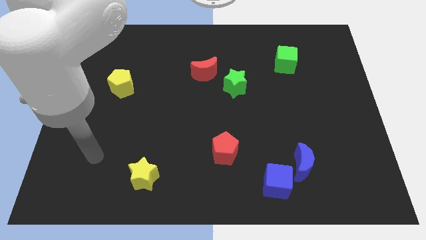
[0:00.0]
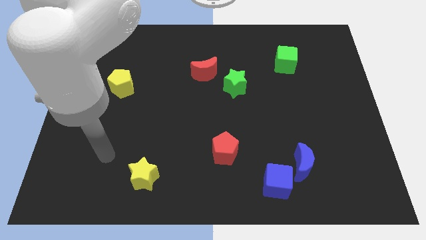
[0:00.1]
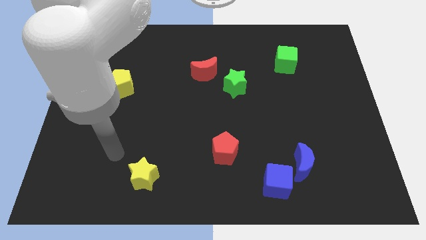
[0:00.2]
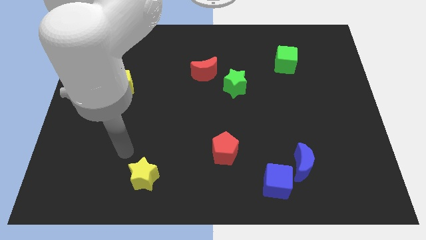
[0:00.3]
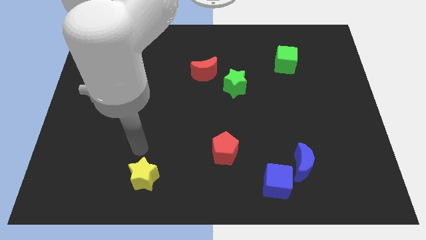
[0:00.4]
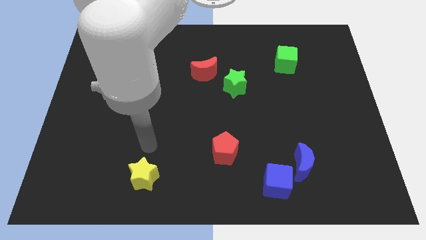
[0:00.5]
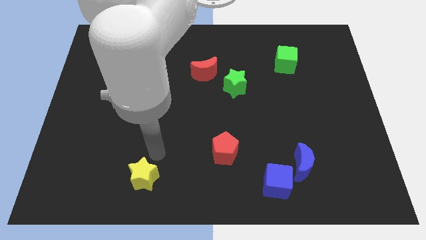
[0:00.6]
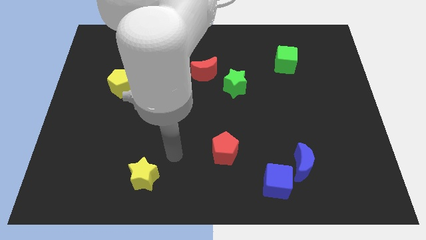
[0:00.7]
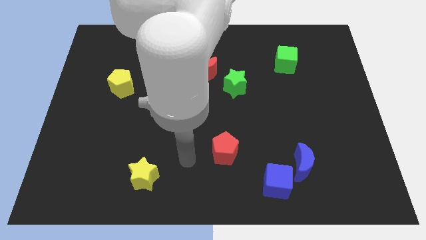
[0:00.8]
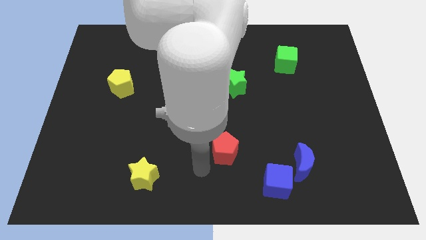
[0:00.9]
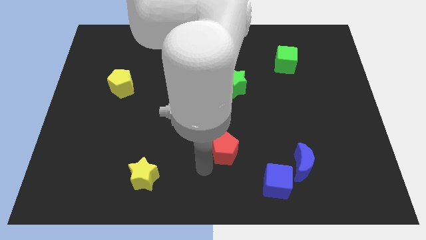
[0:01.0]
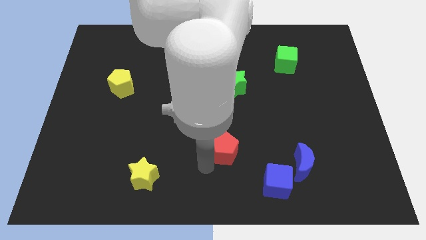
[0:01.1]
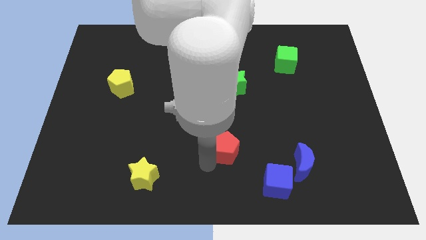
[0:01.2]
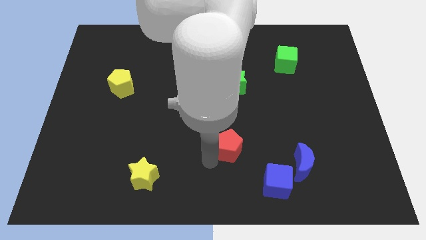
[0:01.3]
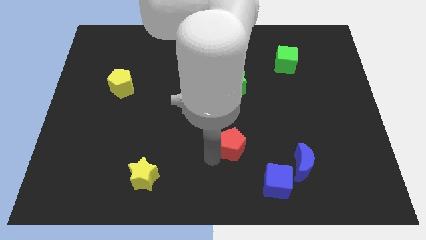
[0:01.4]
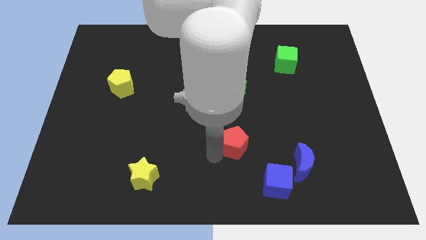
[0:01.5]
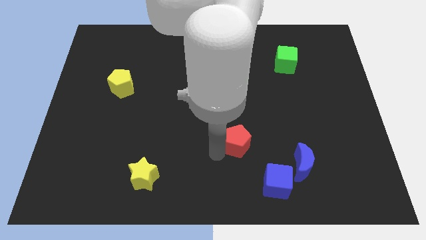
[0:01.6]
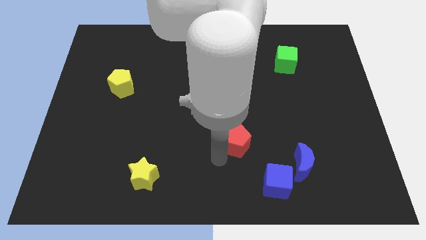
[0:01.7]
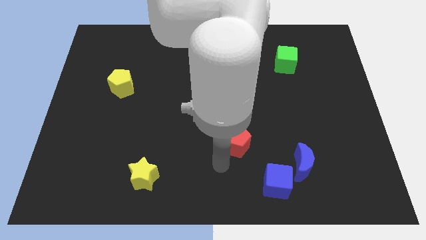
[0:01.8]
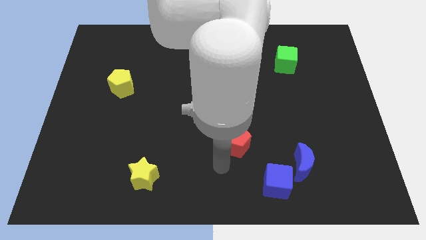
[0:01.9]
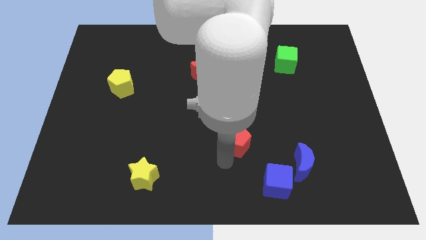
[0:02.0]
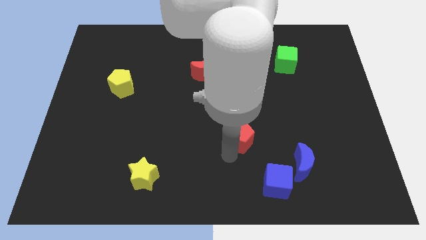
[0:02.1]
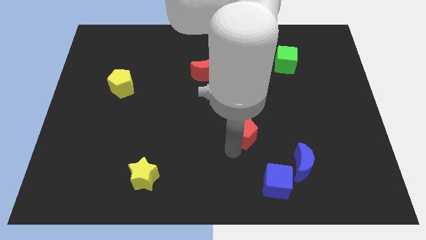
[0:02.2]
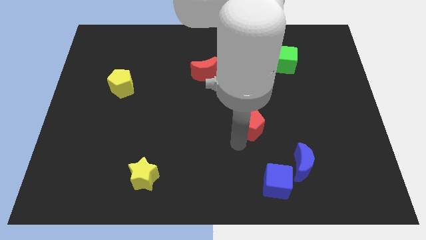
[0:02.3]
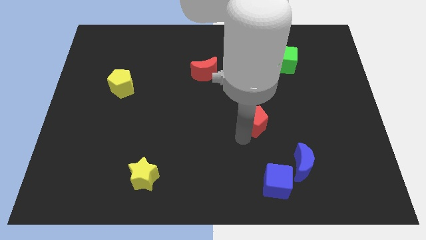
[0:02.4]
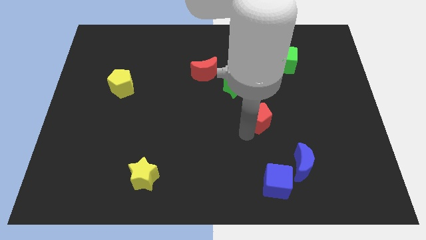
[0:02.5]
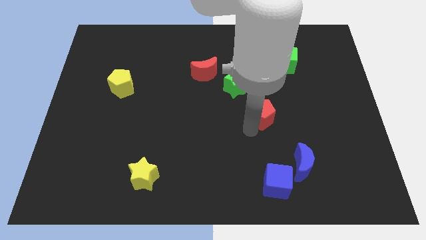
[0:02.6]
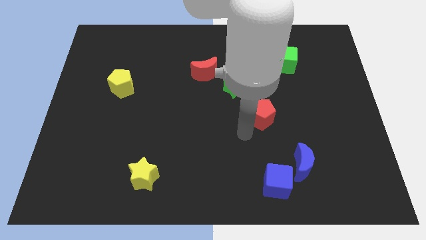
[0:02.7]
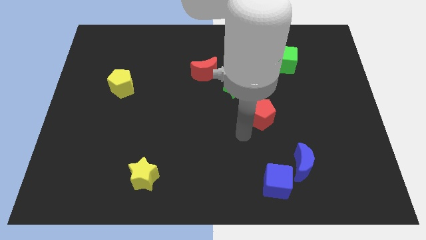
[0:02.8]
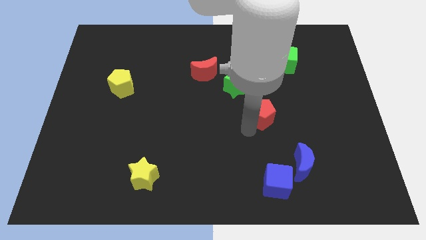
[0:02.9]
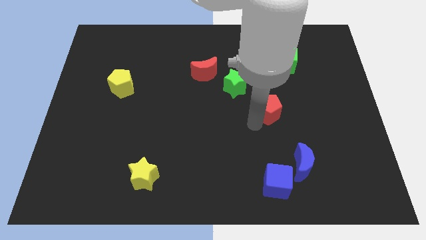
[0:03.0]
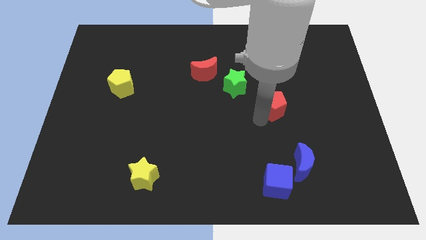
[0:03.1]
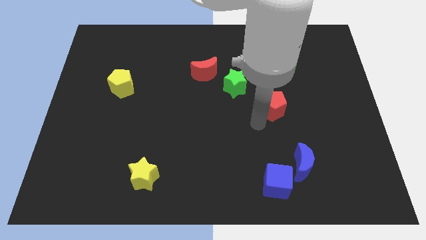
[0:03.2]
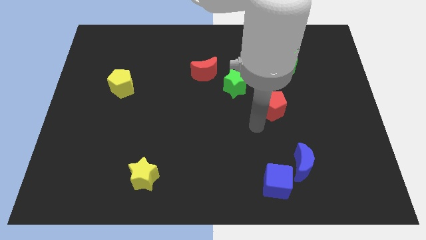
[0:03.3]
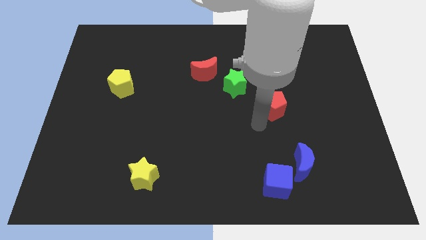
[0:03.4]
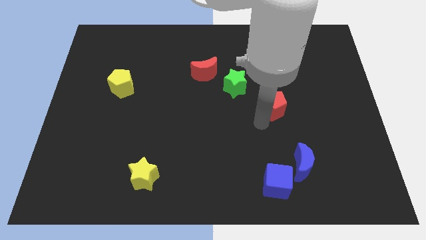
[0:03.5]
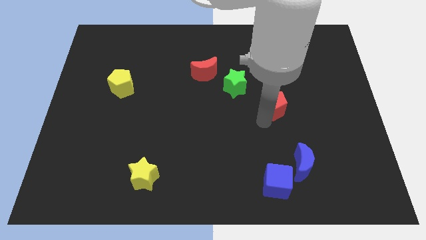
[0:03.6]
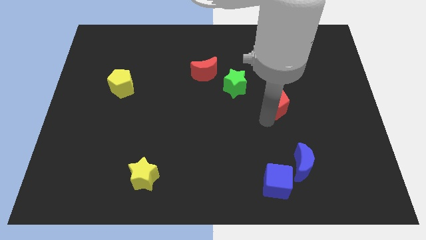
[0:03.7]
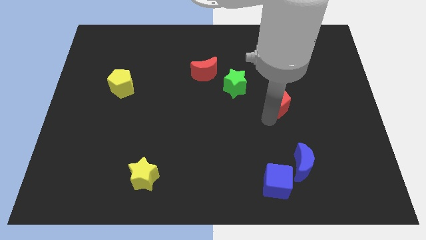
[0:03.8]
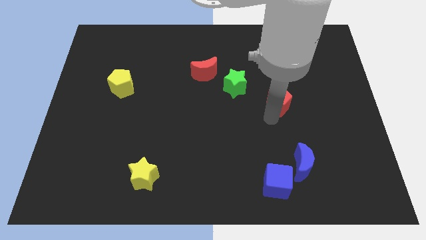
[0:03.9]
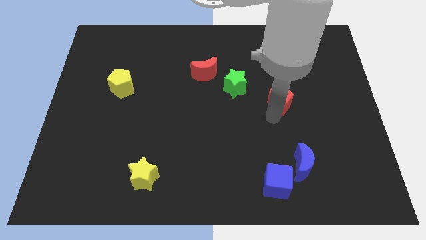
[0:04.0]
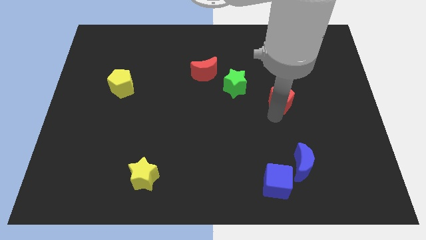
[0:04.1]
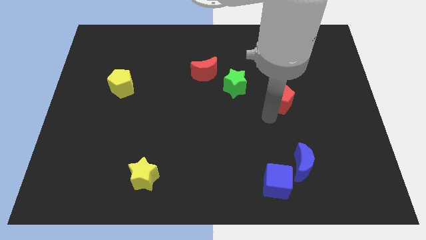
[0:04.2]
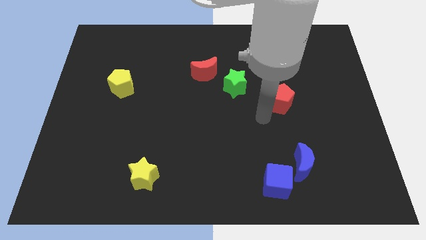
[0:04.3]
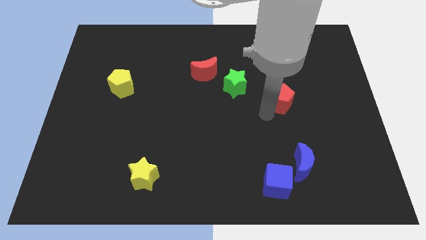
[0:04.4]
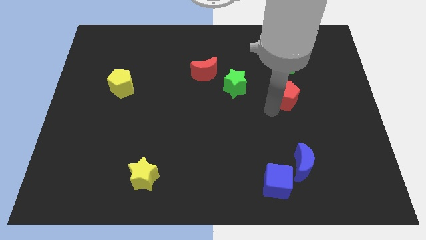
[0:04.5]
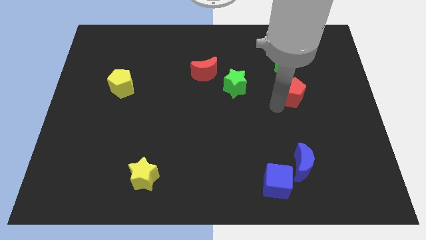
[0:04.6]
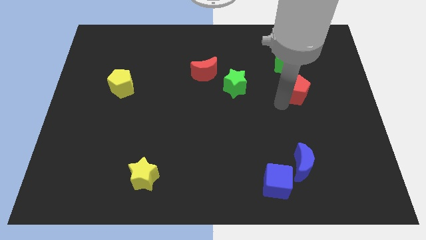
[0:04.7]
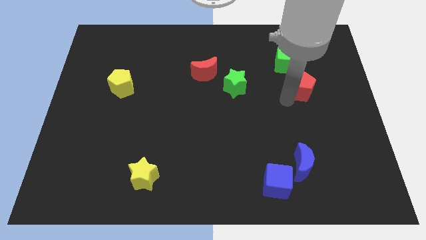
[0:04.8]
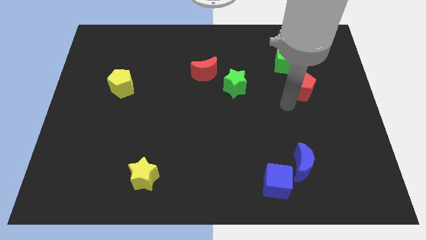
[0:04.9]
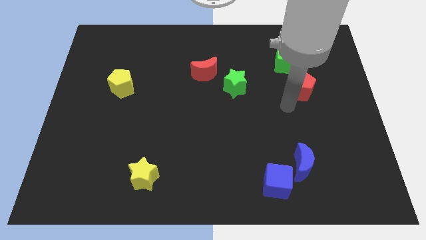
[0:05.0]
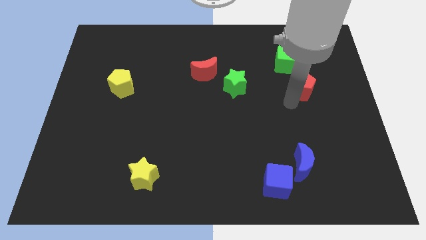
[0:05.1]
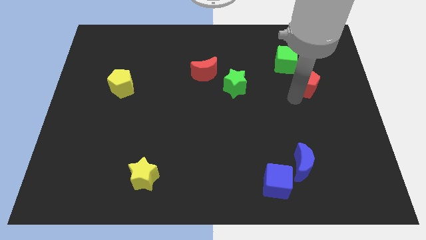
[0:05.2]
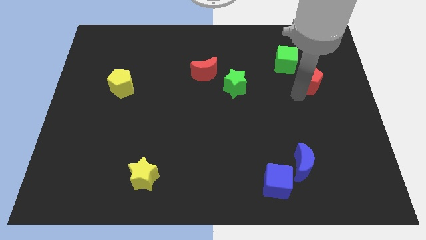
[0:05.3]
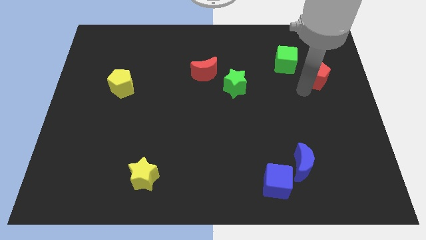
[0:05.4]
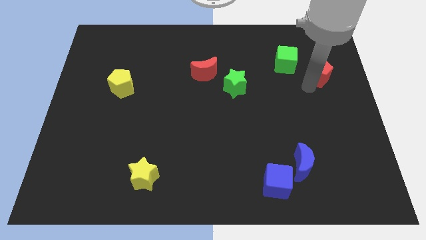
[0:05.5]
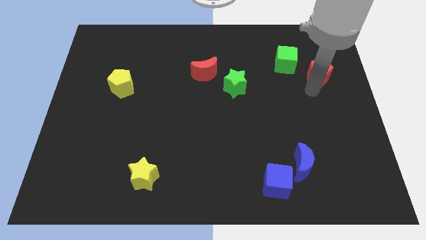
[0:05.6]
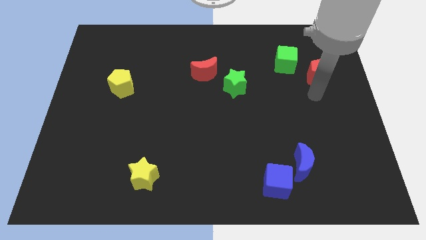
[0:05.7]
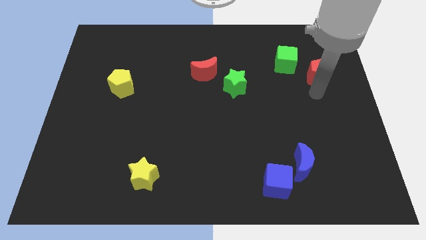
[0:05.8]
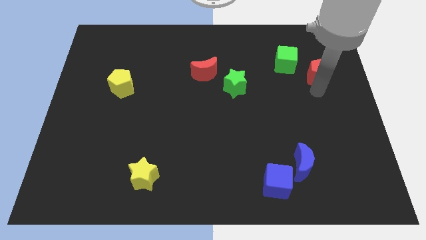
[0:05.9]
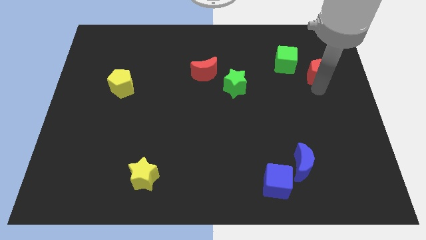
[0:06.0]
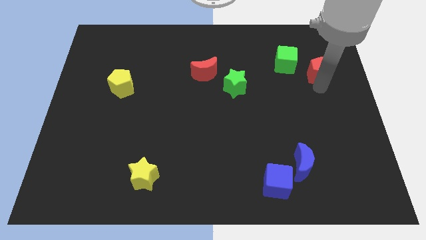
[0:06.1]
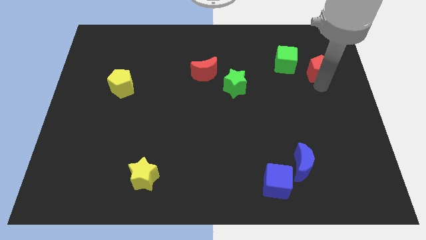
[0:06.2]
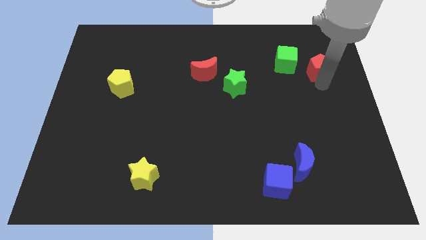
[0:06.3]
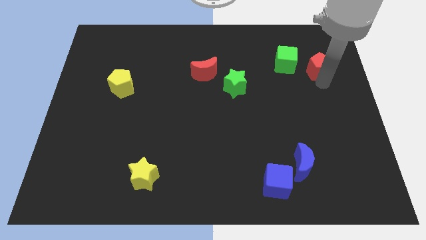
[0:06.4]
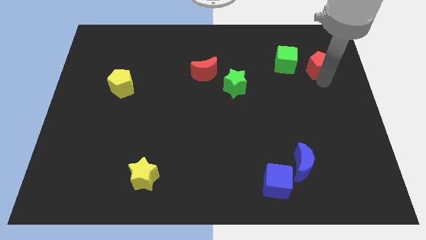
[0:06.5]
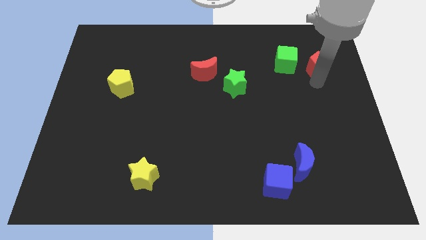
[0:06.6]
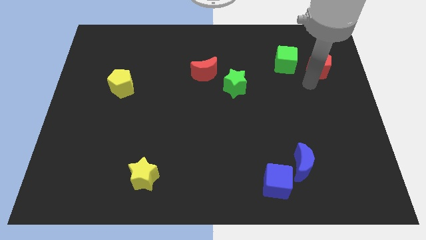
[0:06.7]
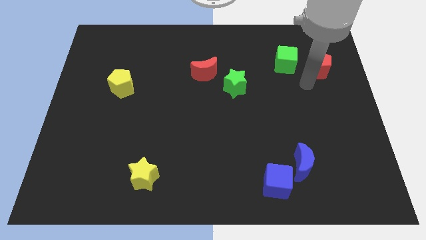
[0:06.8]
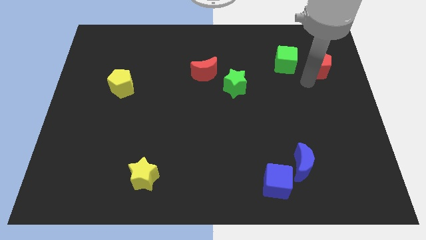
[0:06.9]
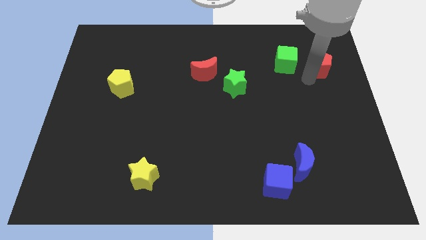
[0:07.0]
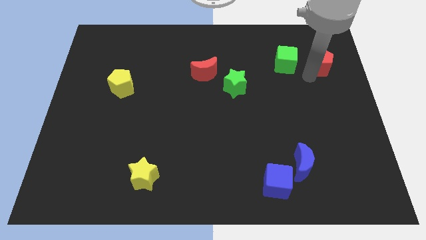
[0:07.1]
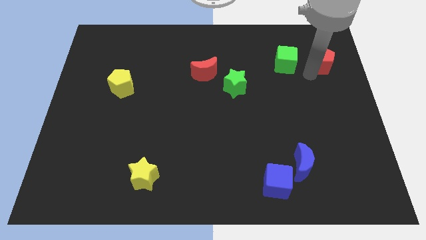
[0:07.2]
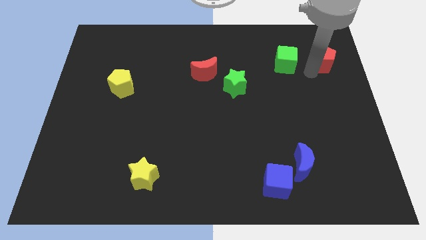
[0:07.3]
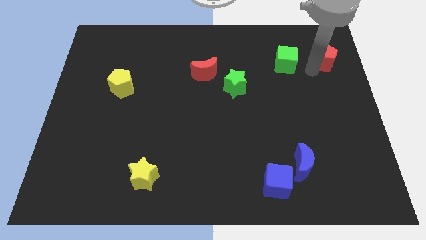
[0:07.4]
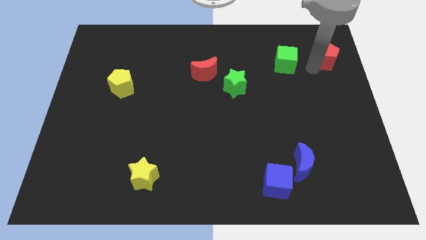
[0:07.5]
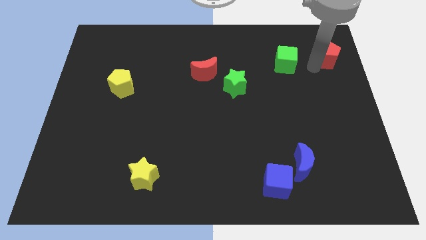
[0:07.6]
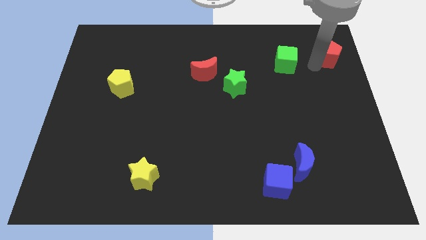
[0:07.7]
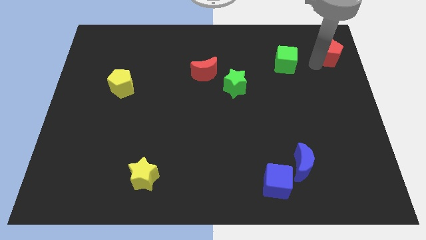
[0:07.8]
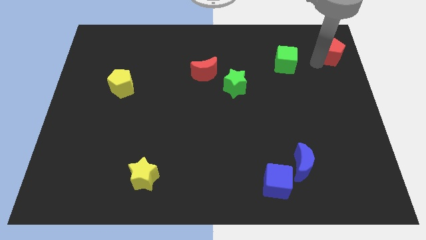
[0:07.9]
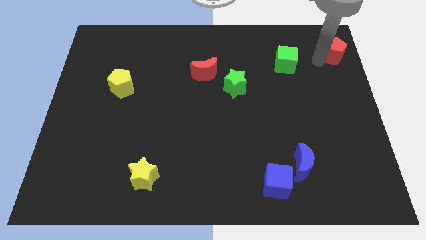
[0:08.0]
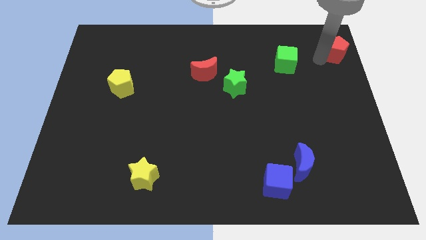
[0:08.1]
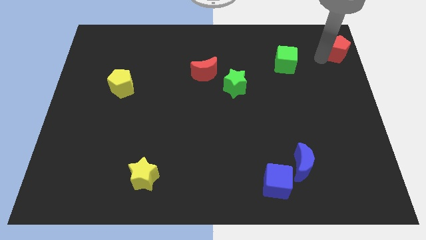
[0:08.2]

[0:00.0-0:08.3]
slide the red pentagon to the top right corner
